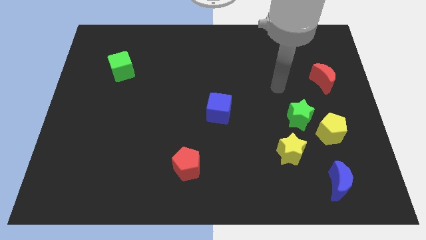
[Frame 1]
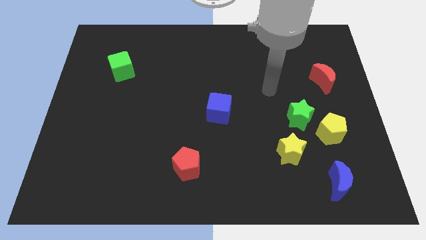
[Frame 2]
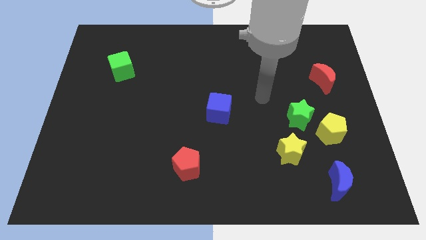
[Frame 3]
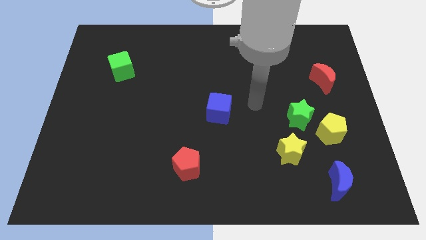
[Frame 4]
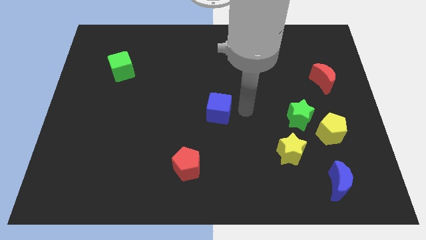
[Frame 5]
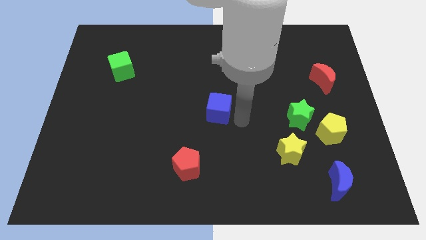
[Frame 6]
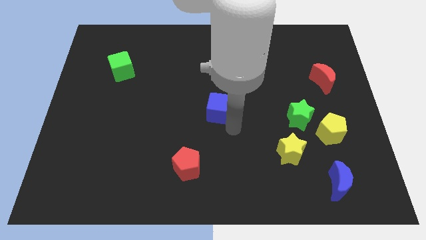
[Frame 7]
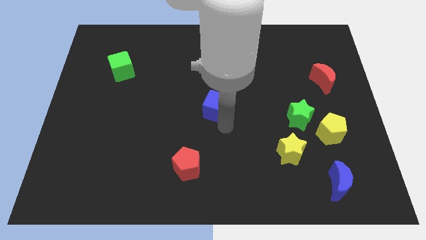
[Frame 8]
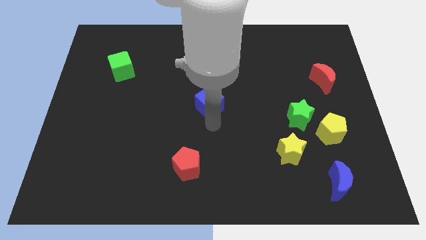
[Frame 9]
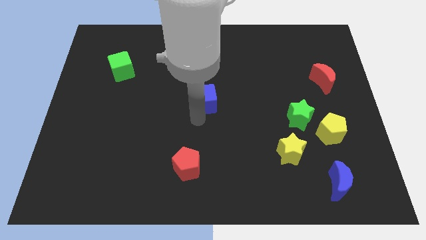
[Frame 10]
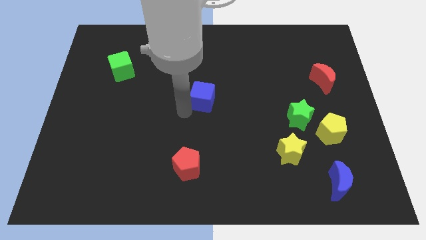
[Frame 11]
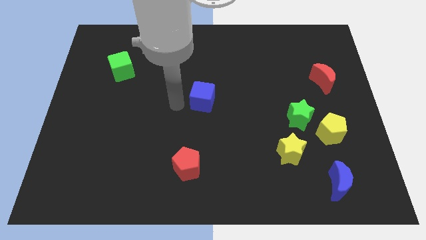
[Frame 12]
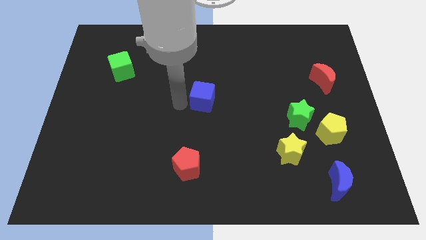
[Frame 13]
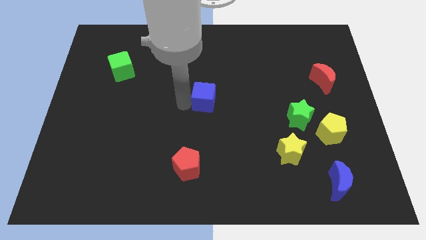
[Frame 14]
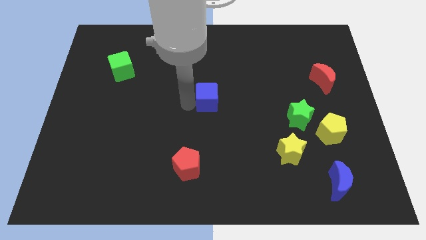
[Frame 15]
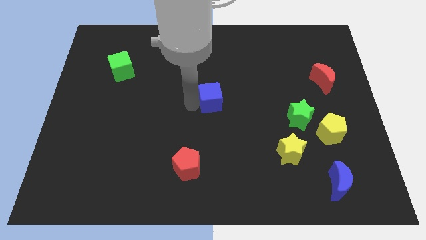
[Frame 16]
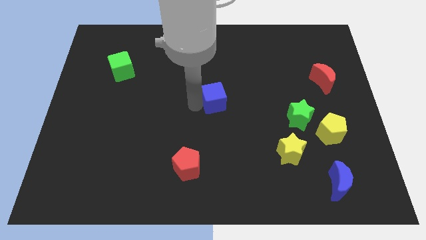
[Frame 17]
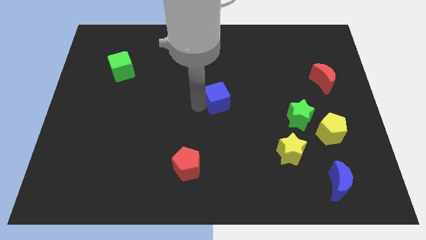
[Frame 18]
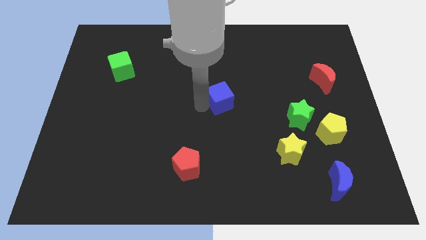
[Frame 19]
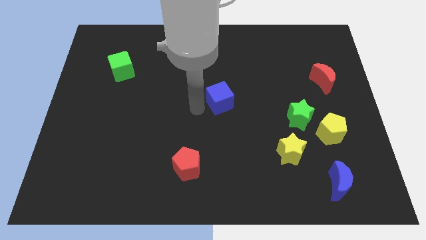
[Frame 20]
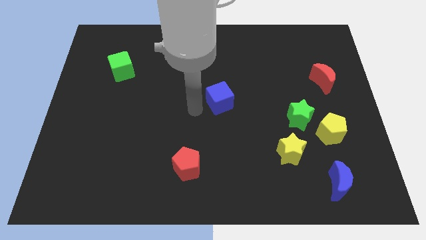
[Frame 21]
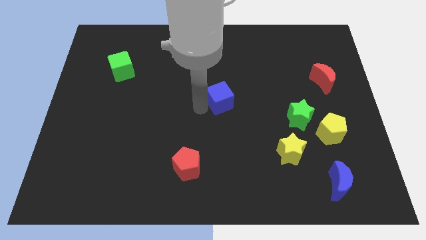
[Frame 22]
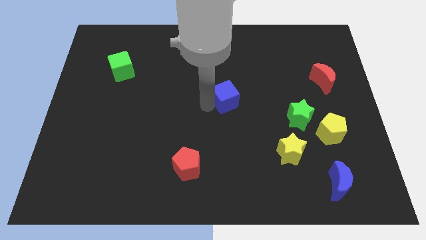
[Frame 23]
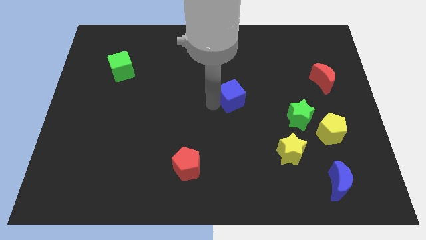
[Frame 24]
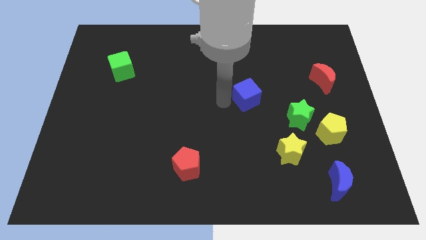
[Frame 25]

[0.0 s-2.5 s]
slightly push the blue cube diagonally up and to the right

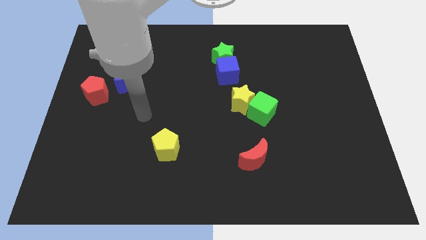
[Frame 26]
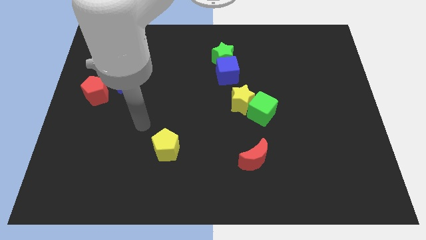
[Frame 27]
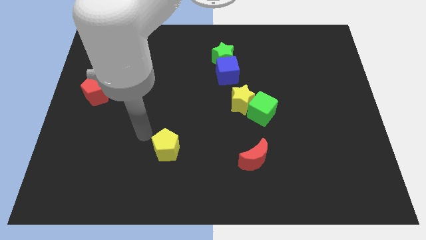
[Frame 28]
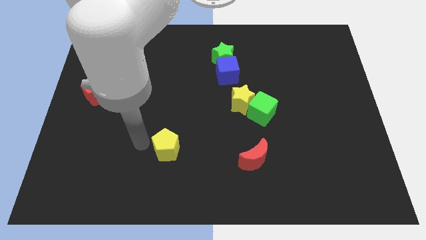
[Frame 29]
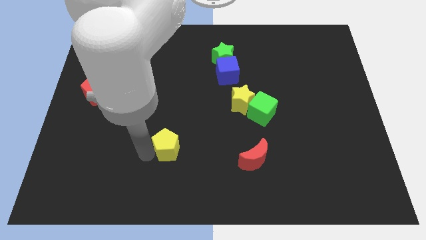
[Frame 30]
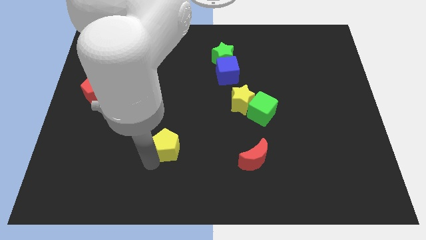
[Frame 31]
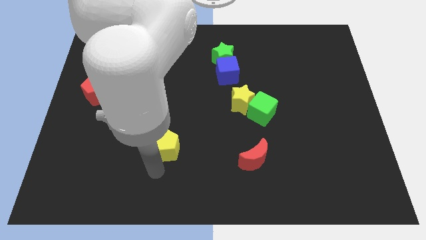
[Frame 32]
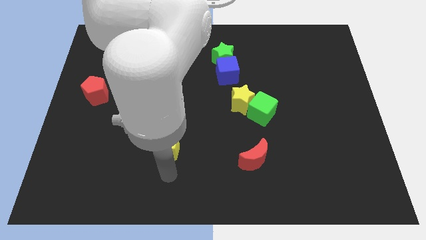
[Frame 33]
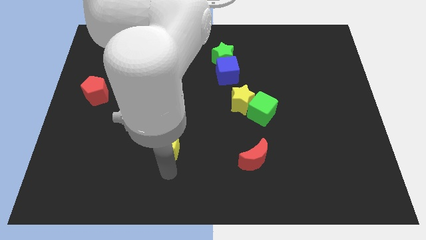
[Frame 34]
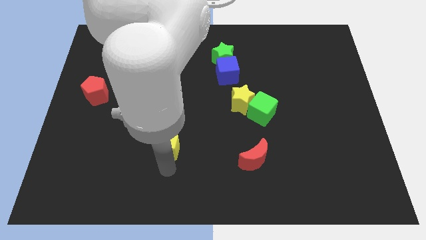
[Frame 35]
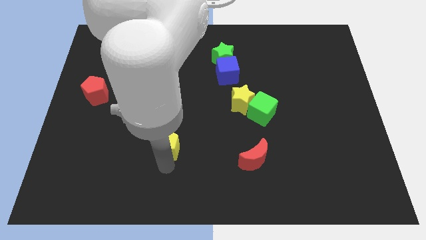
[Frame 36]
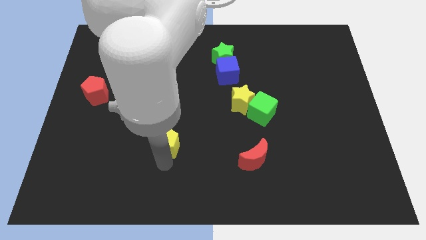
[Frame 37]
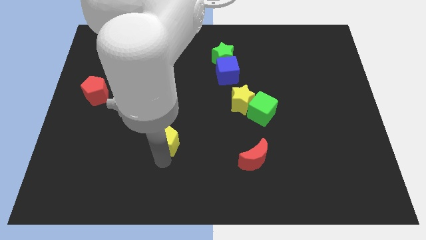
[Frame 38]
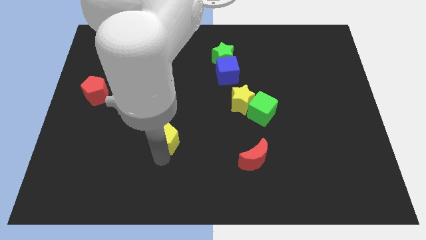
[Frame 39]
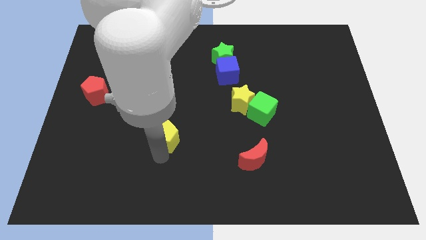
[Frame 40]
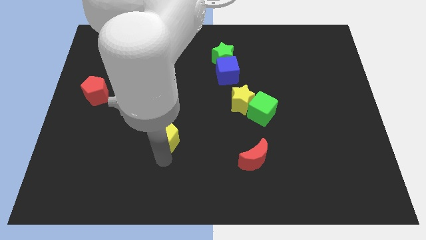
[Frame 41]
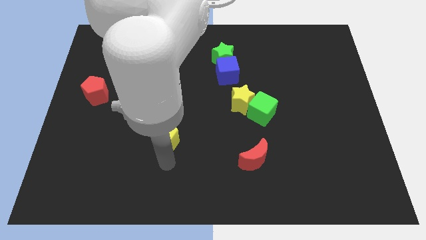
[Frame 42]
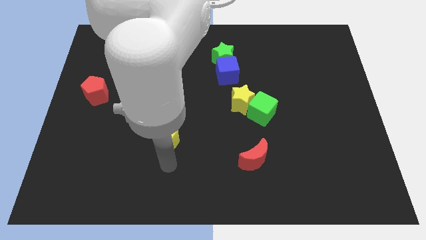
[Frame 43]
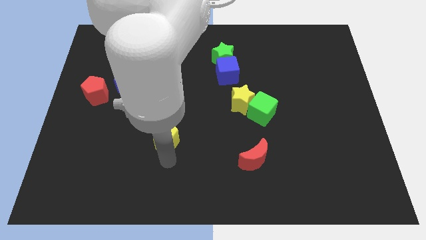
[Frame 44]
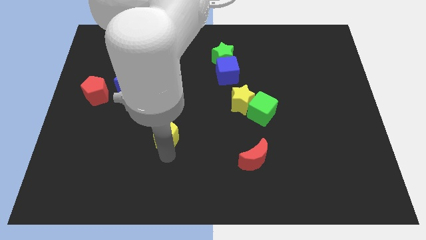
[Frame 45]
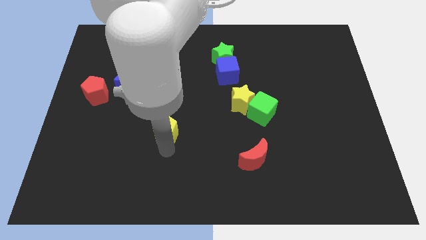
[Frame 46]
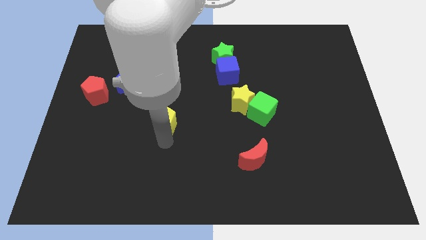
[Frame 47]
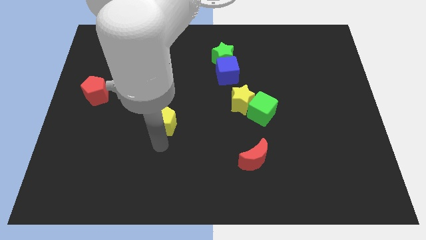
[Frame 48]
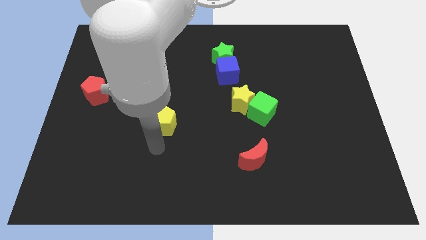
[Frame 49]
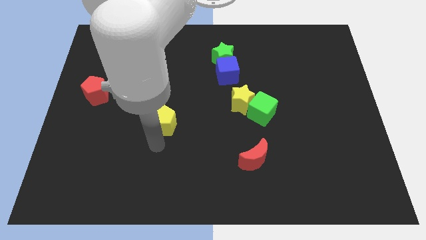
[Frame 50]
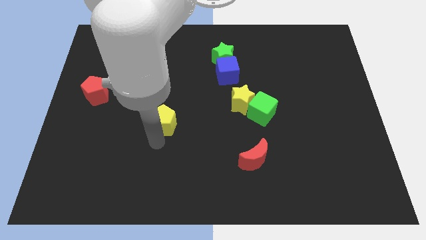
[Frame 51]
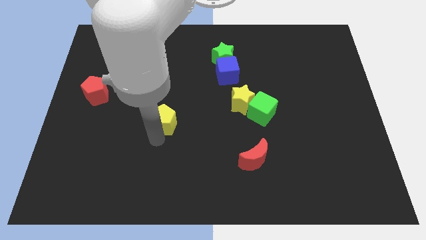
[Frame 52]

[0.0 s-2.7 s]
slide the yellow pentagon somewhat upwards

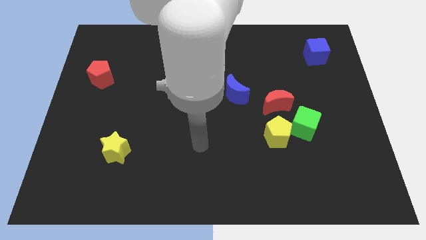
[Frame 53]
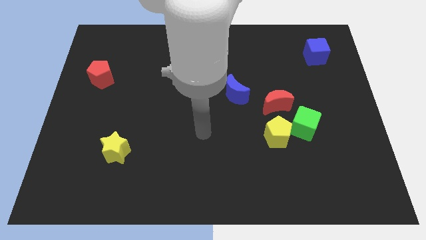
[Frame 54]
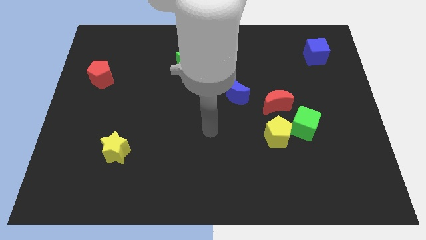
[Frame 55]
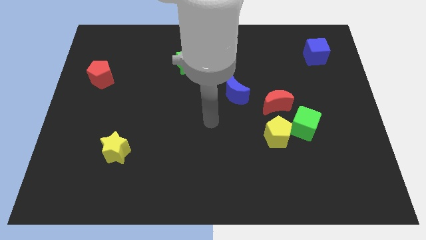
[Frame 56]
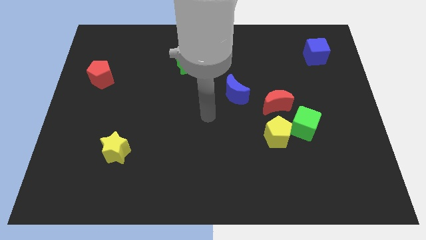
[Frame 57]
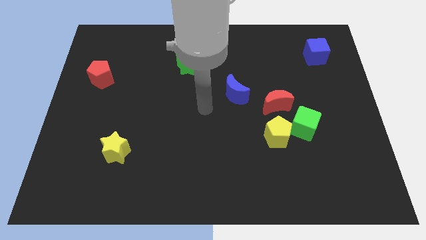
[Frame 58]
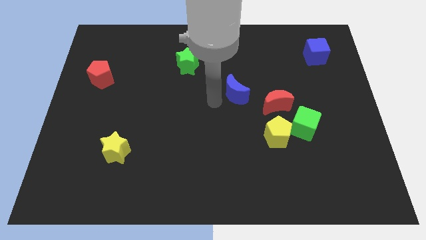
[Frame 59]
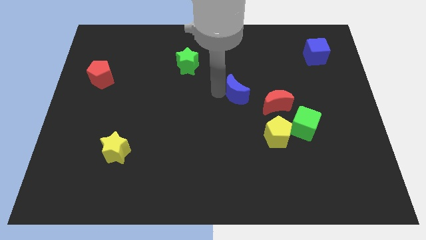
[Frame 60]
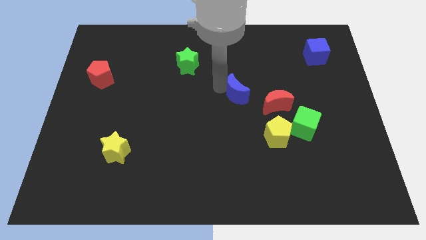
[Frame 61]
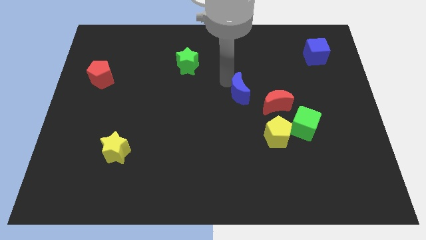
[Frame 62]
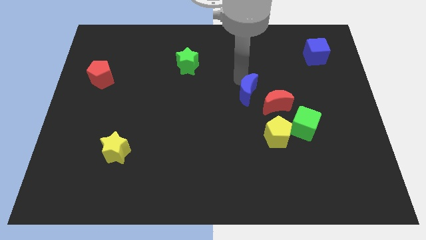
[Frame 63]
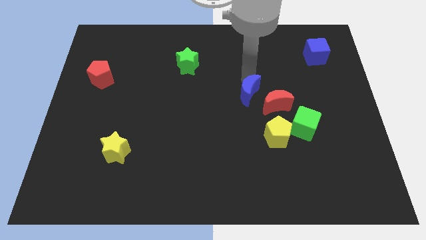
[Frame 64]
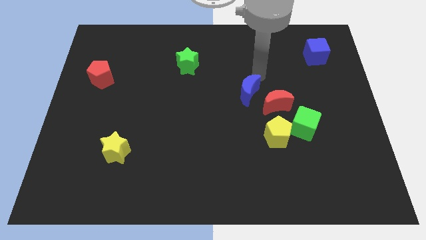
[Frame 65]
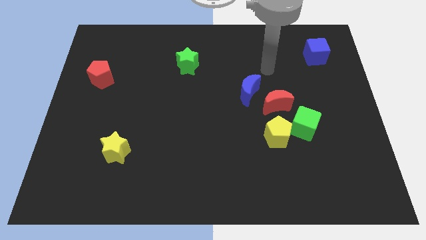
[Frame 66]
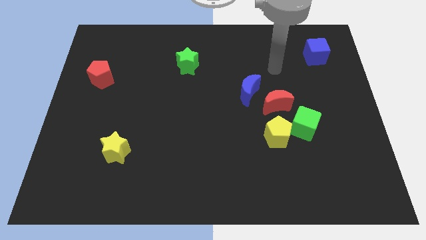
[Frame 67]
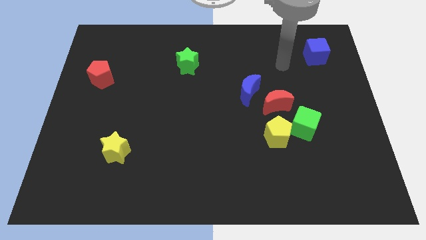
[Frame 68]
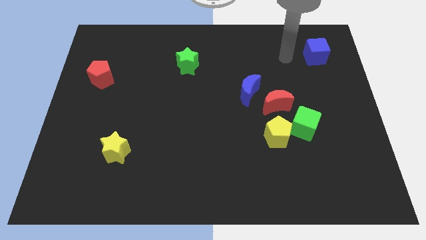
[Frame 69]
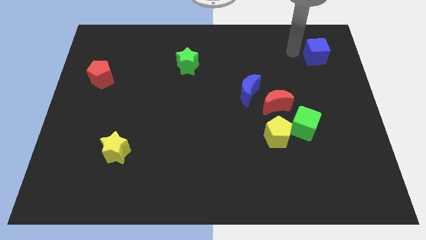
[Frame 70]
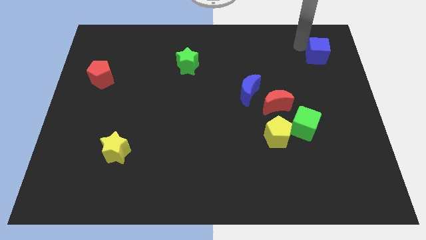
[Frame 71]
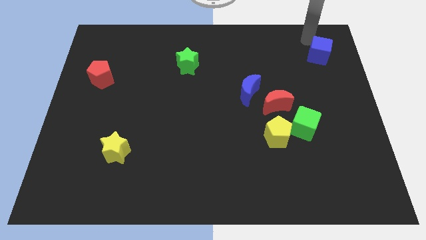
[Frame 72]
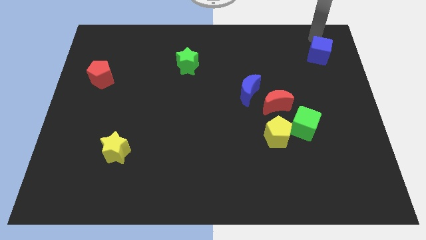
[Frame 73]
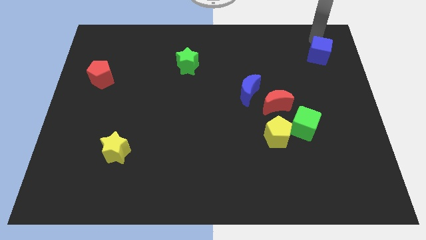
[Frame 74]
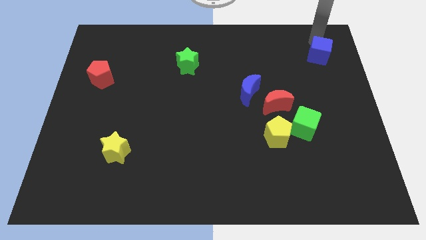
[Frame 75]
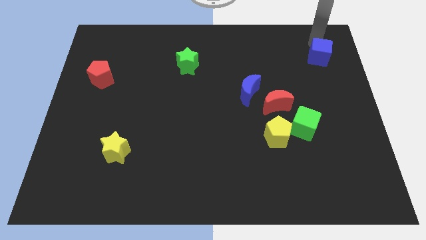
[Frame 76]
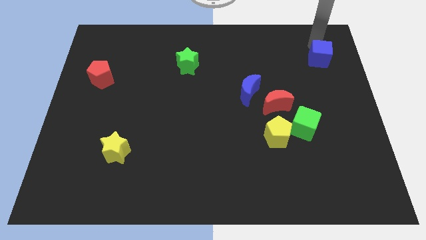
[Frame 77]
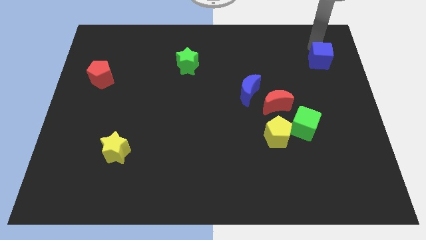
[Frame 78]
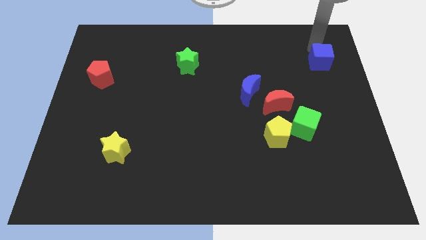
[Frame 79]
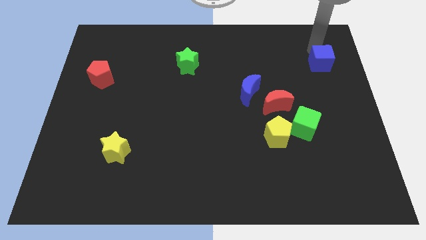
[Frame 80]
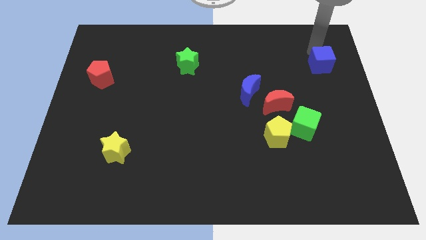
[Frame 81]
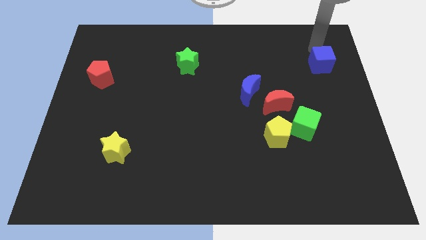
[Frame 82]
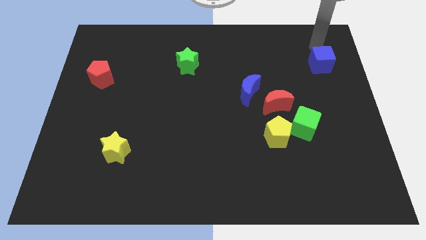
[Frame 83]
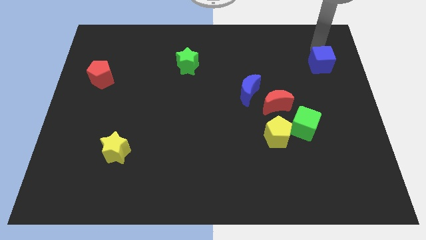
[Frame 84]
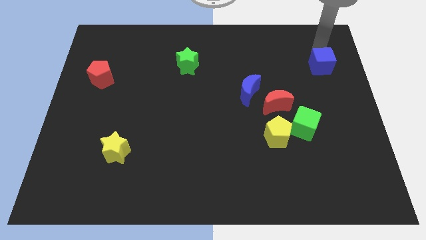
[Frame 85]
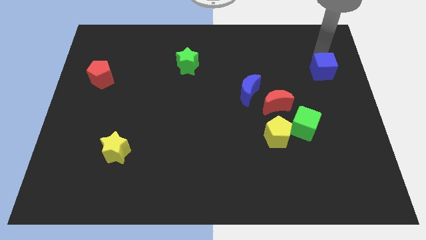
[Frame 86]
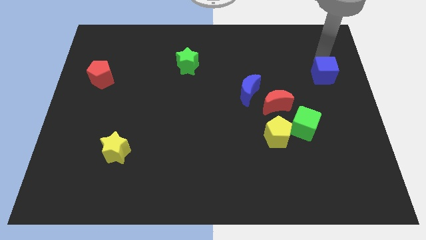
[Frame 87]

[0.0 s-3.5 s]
slightly push the blue cube down
